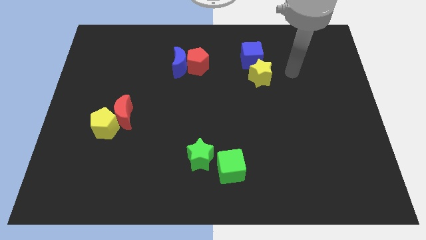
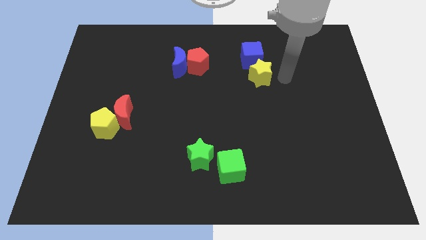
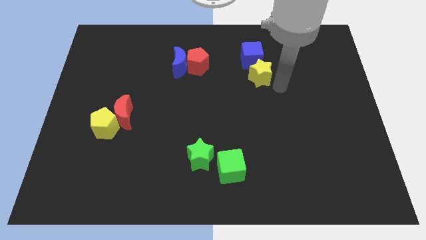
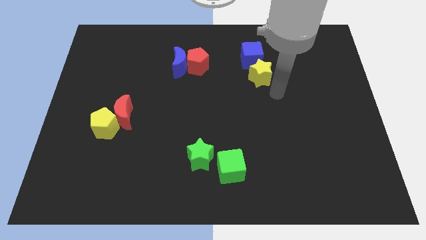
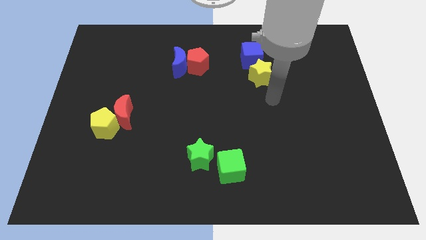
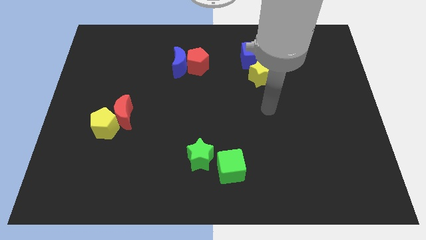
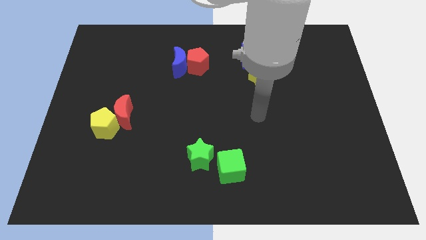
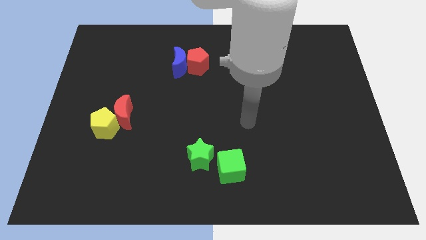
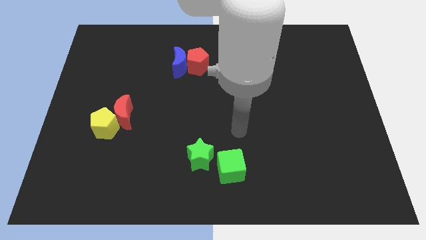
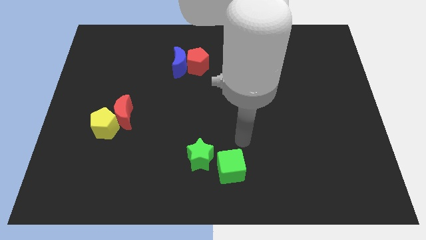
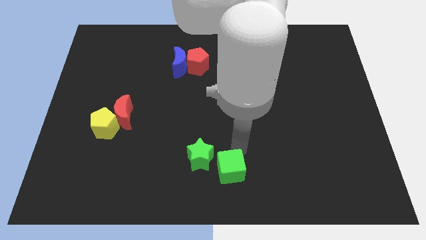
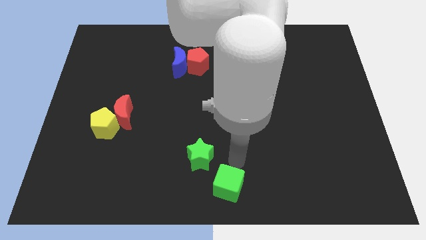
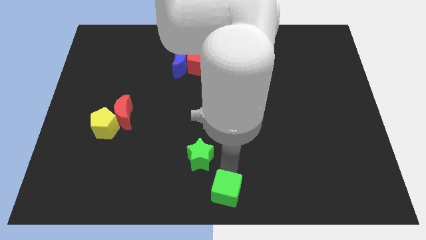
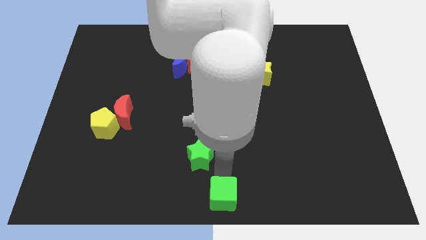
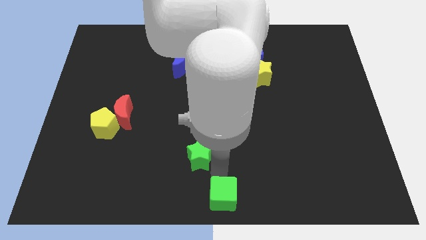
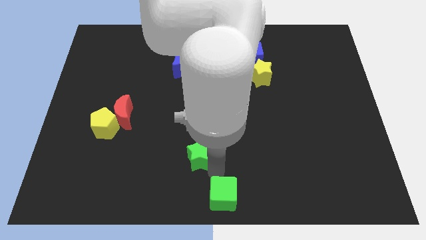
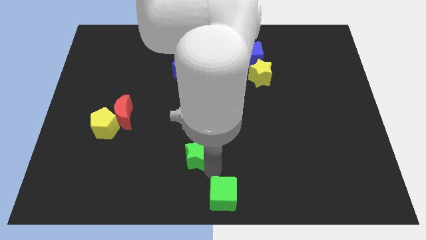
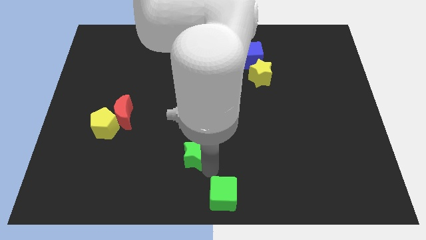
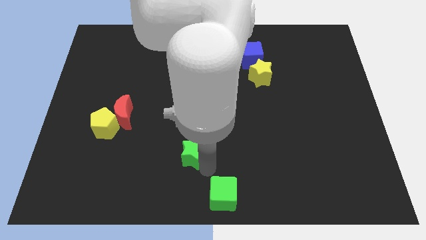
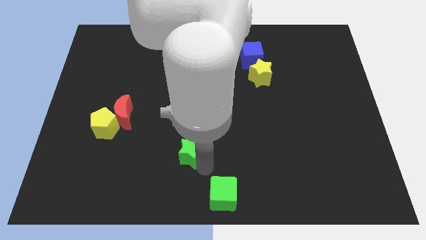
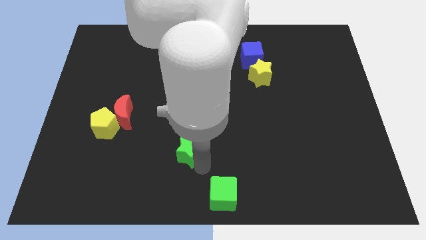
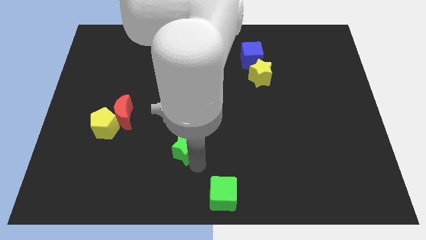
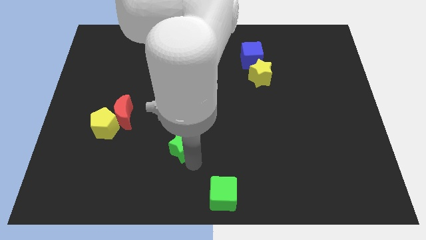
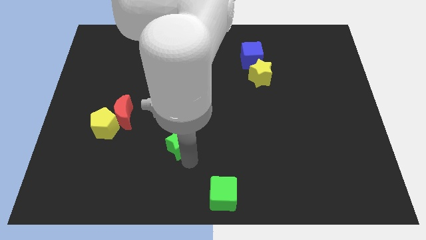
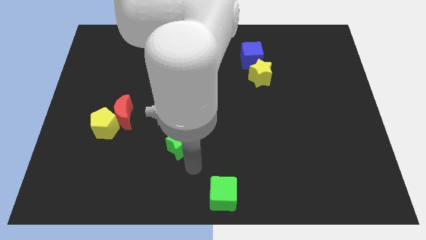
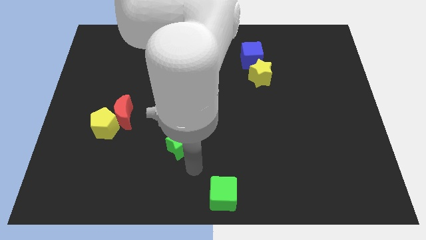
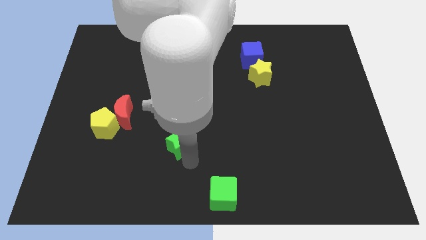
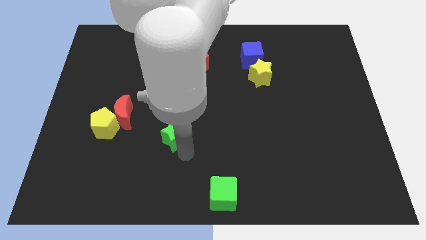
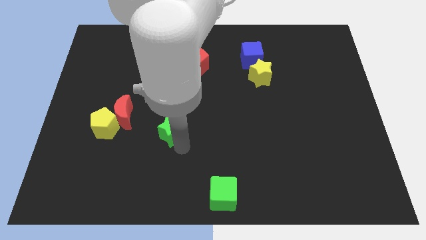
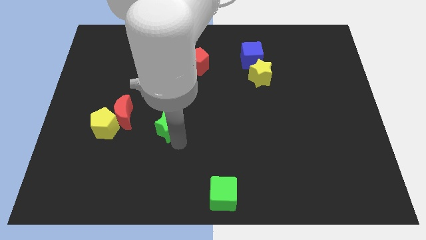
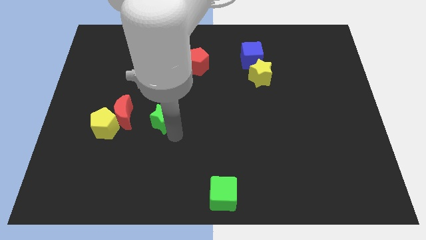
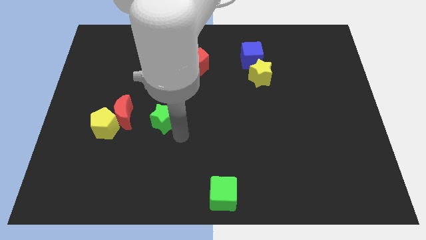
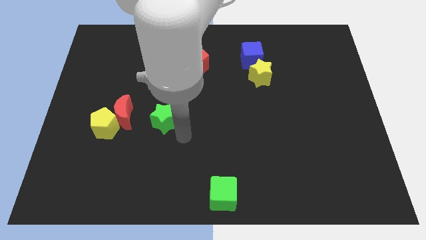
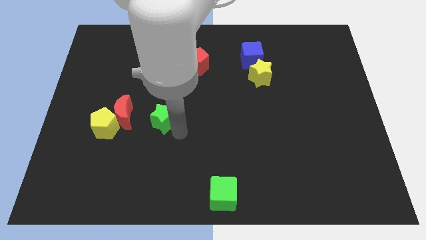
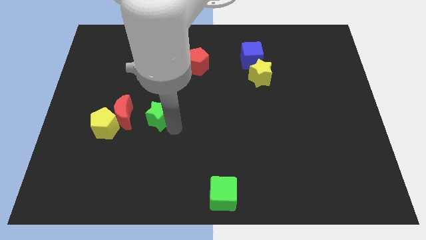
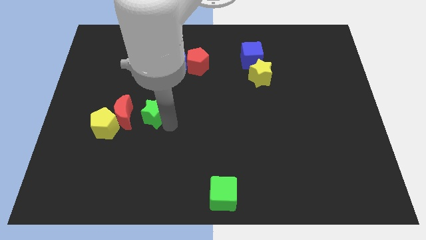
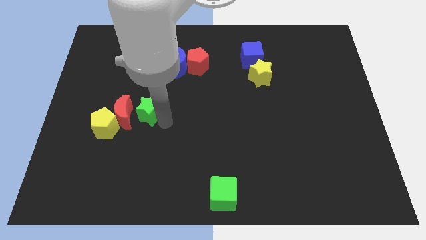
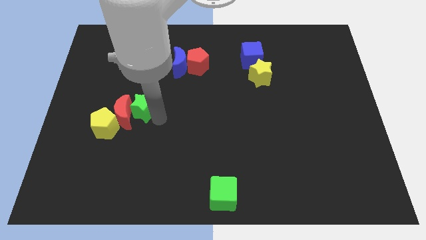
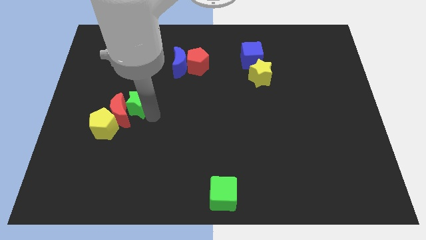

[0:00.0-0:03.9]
slide the green star upwards and then left

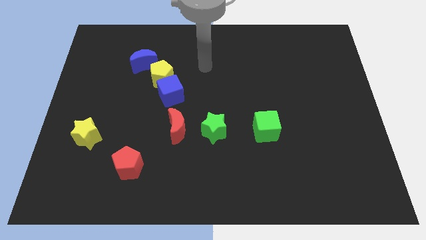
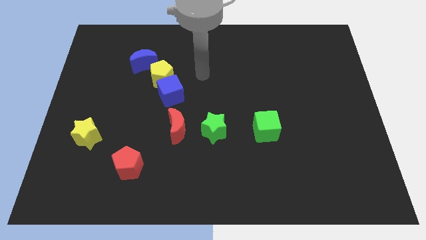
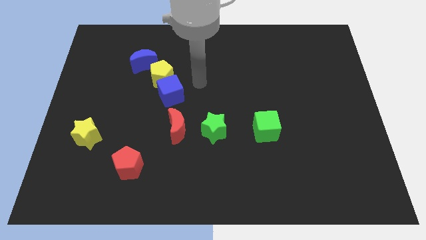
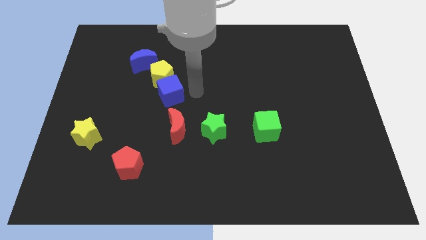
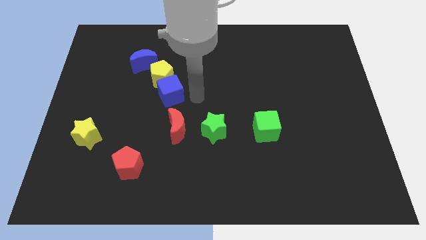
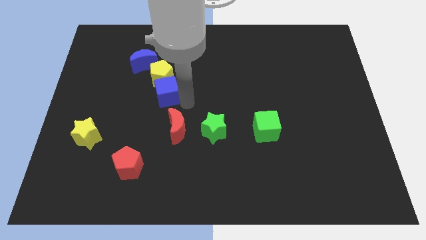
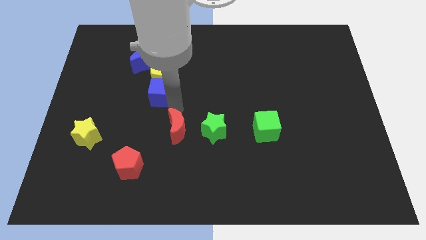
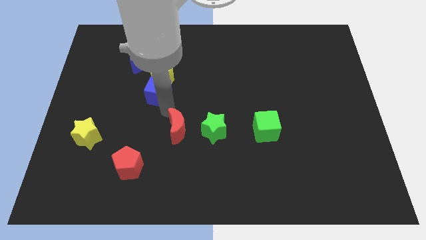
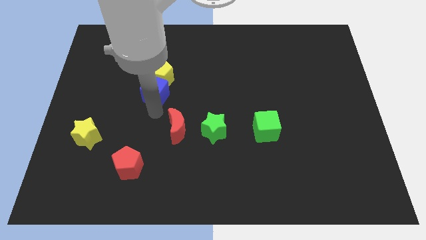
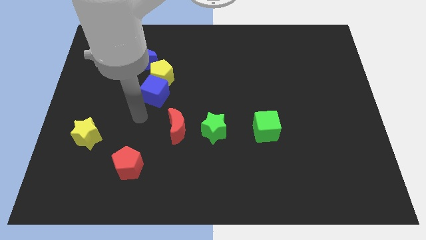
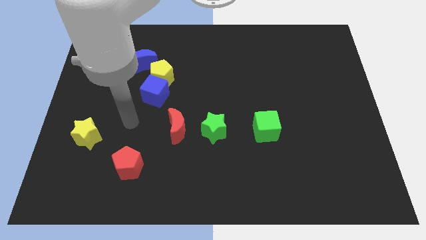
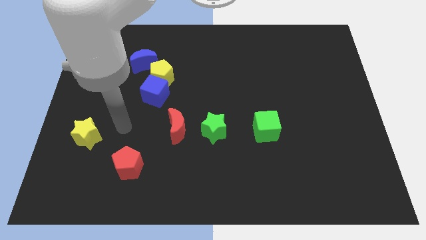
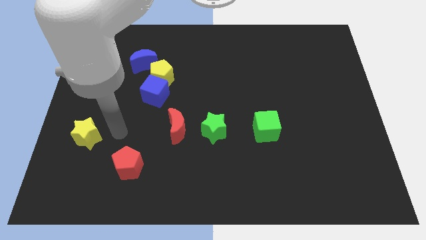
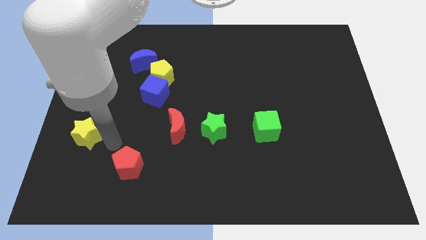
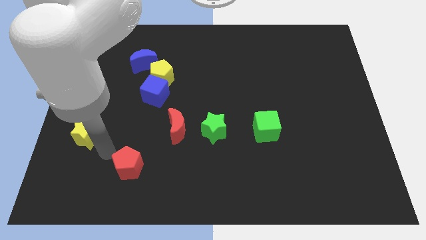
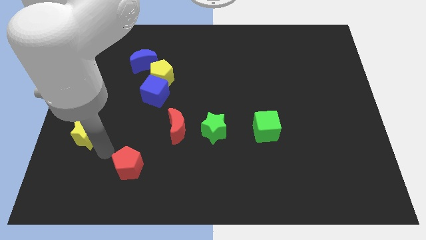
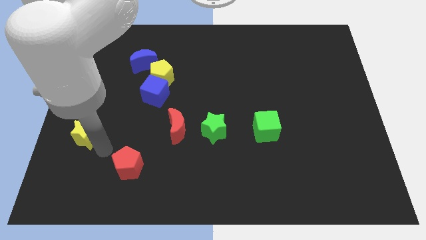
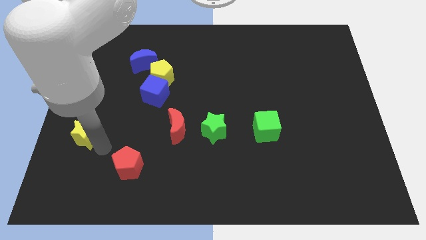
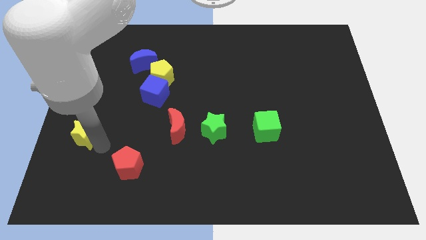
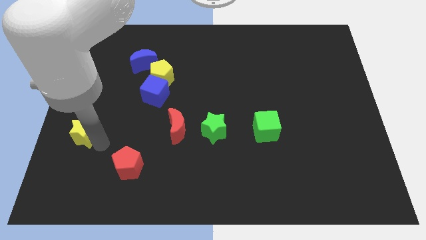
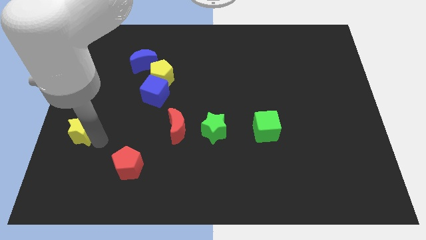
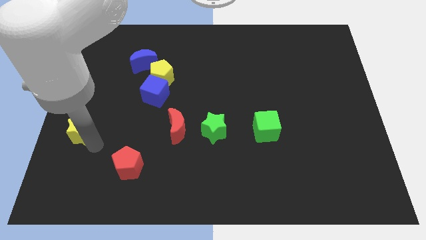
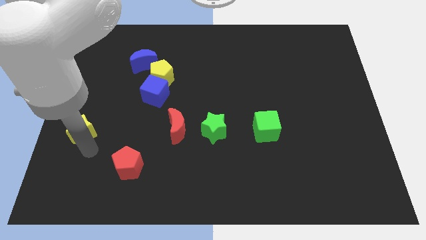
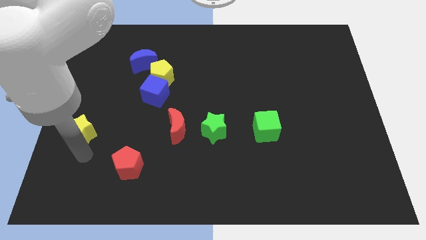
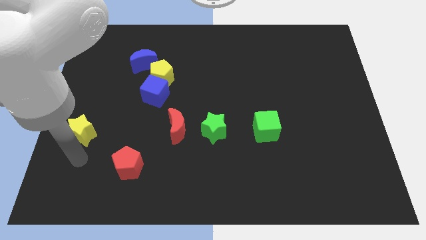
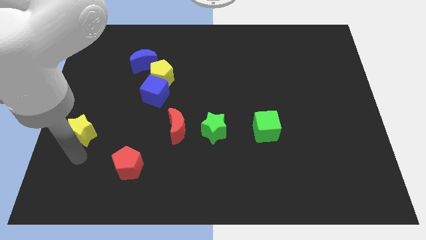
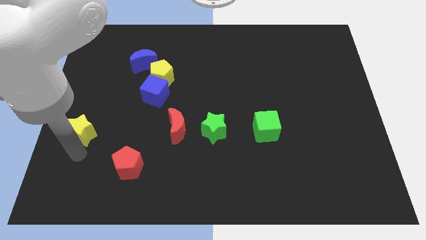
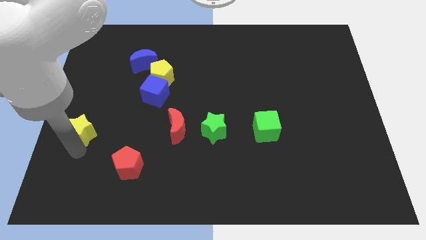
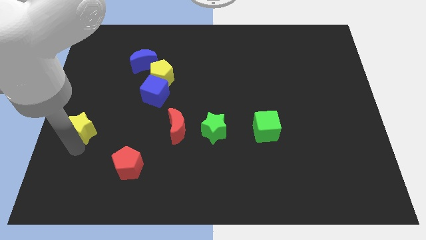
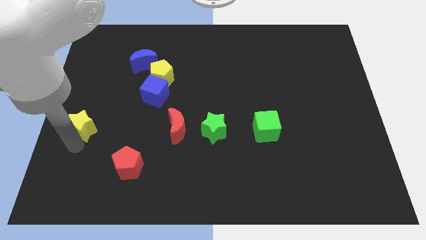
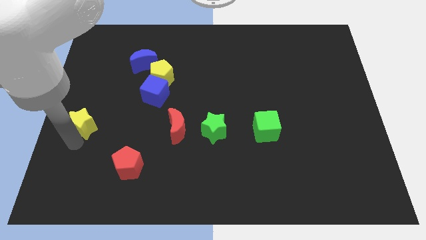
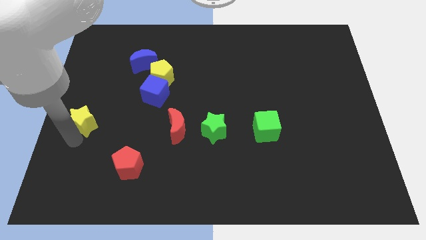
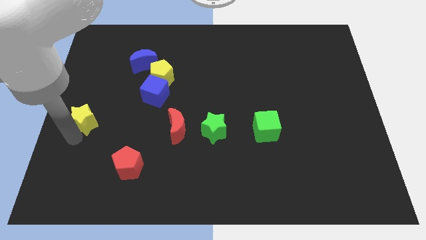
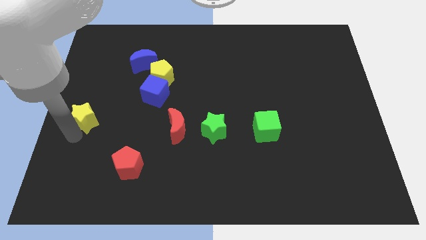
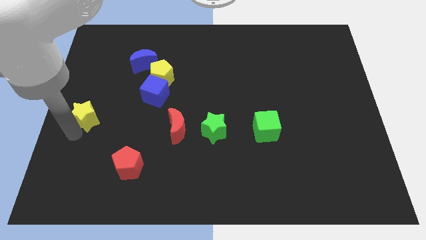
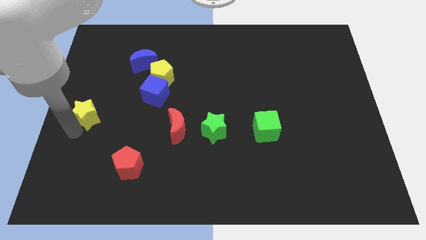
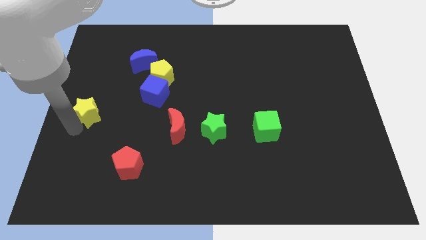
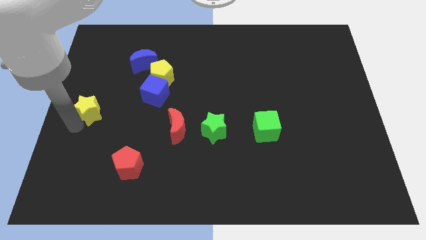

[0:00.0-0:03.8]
slide the yellow star up a bit

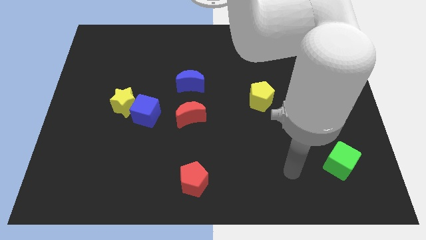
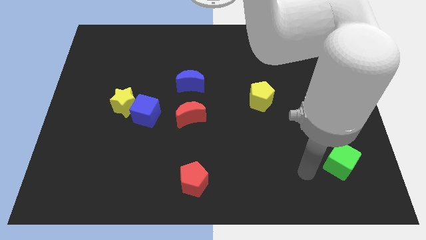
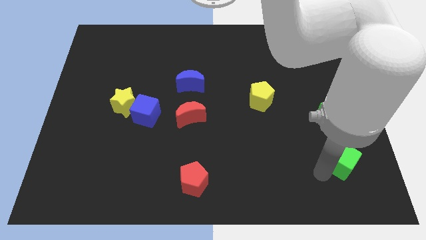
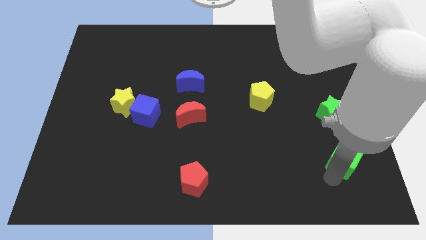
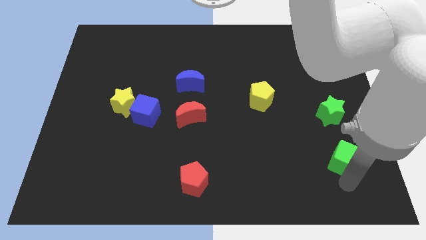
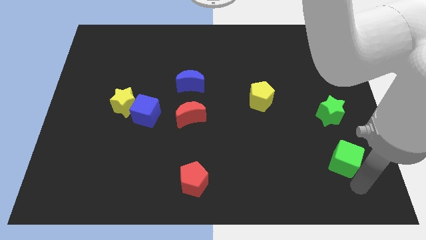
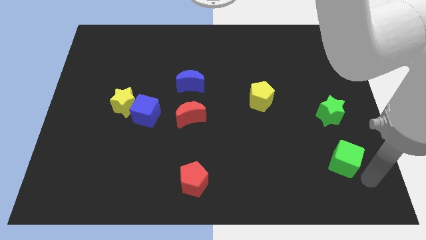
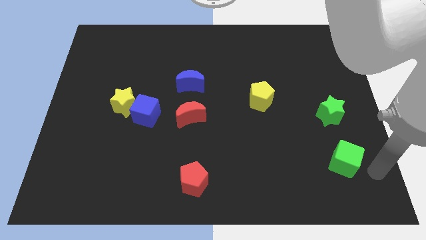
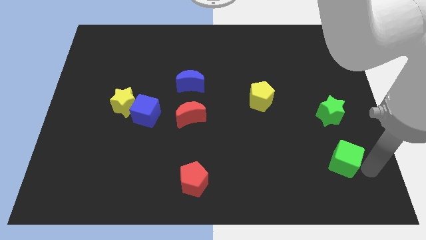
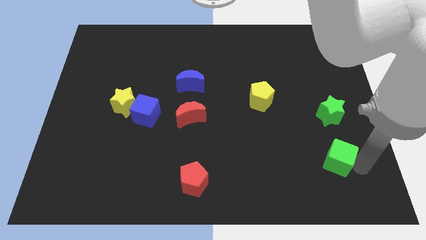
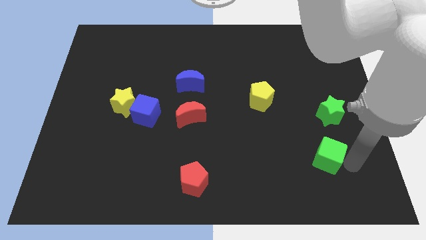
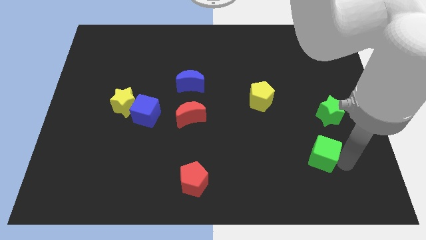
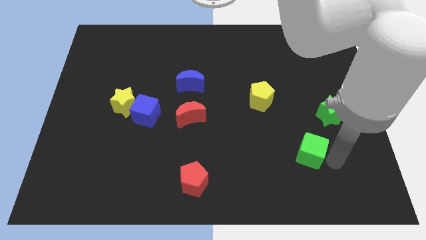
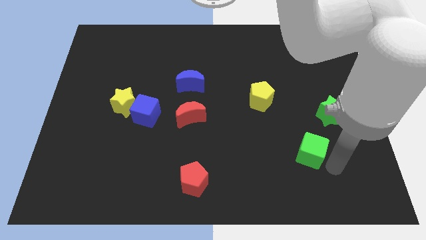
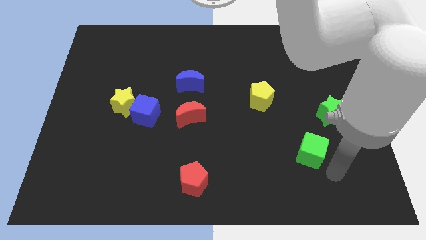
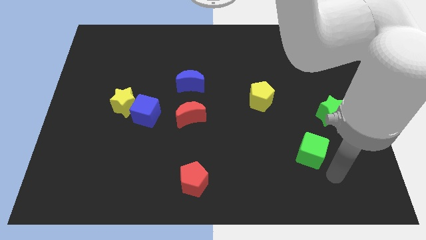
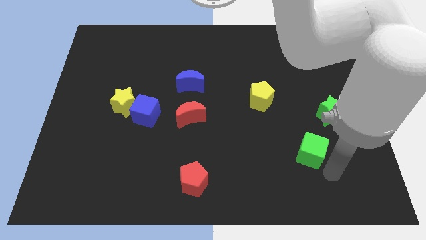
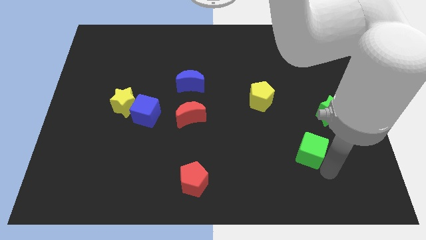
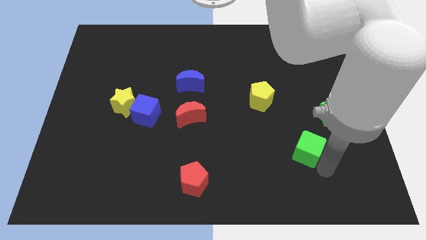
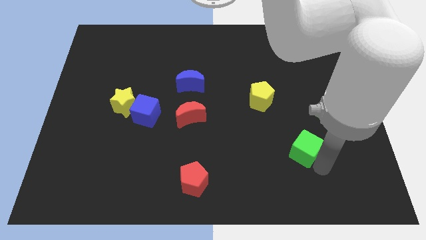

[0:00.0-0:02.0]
push the green cube upwards and then to the left a little bit
